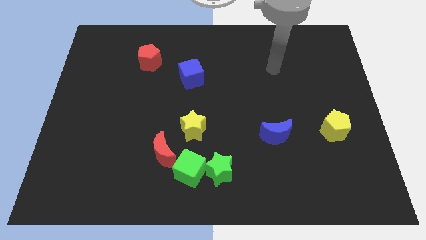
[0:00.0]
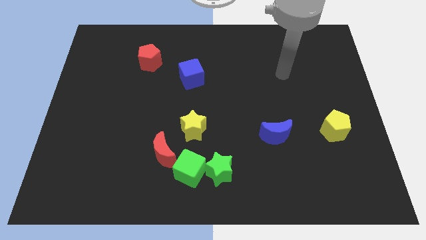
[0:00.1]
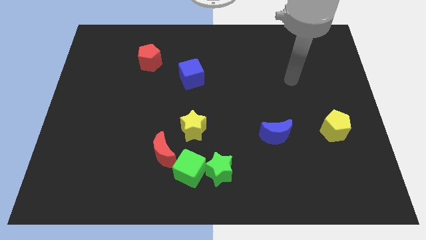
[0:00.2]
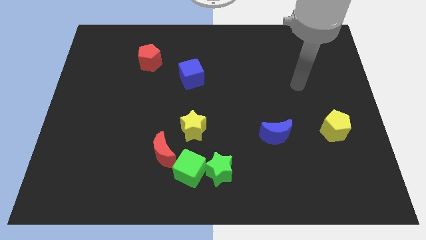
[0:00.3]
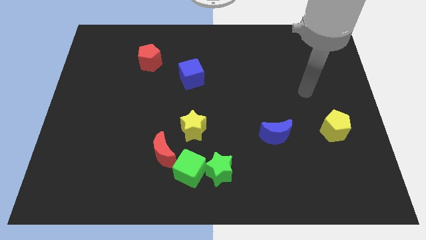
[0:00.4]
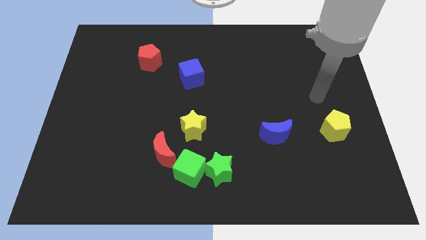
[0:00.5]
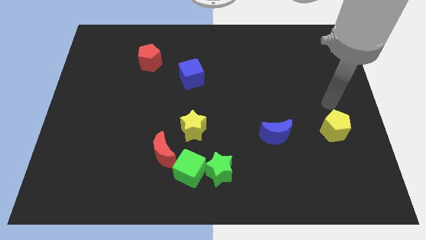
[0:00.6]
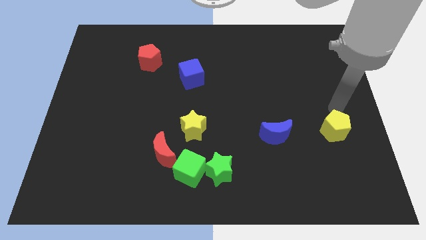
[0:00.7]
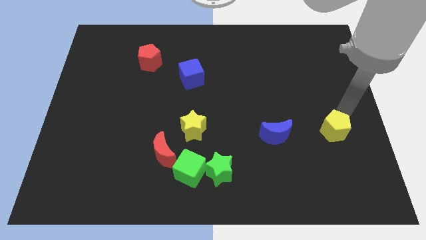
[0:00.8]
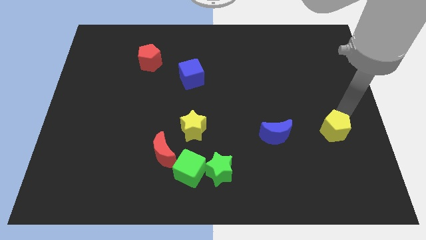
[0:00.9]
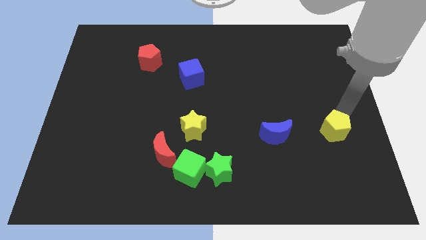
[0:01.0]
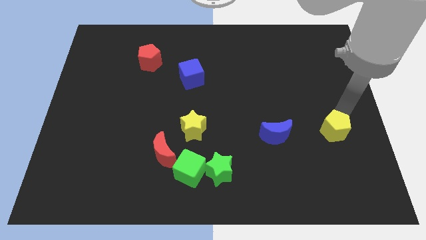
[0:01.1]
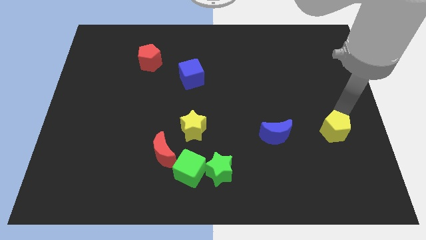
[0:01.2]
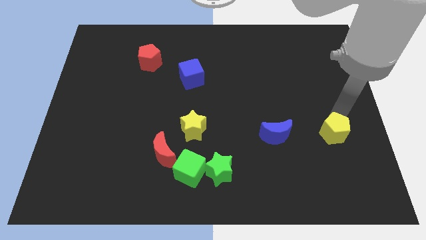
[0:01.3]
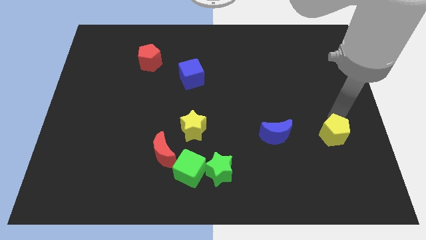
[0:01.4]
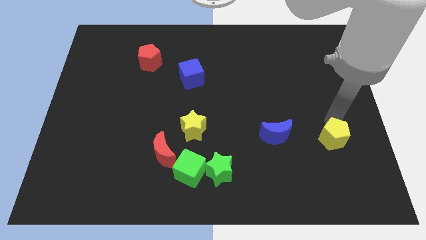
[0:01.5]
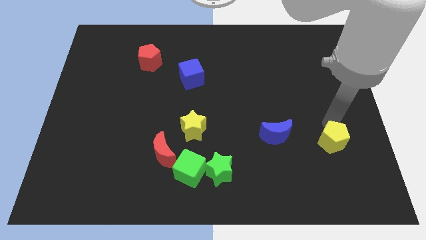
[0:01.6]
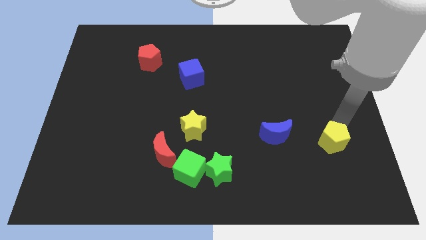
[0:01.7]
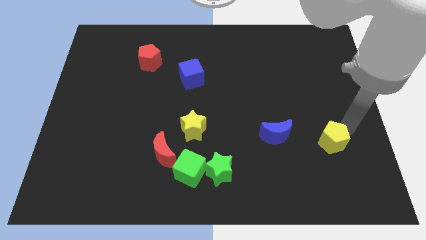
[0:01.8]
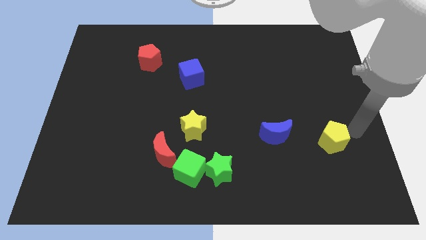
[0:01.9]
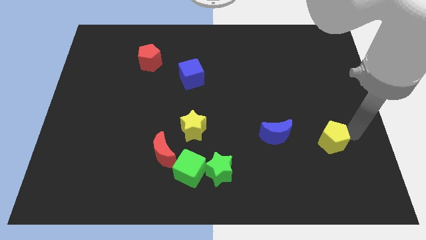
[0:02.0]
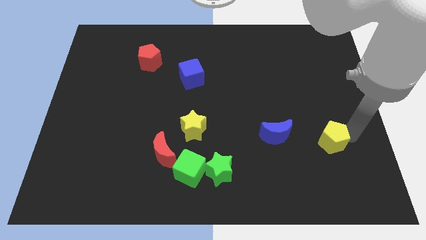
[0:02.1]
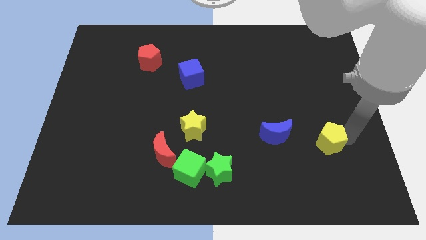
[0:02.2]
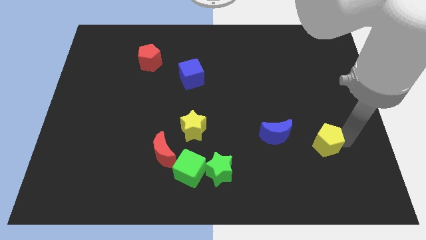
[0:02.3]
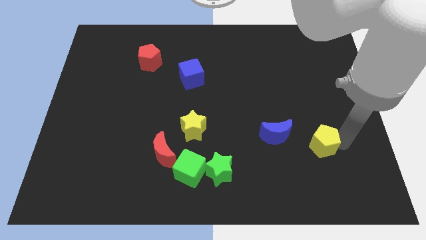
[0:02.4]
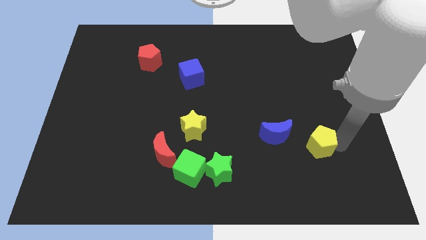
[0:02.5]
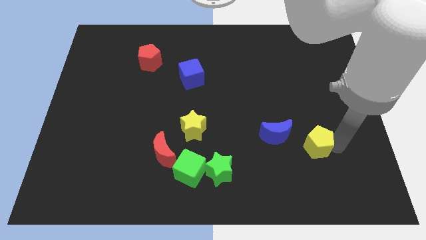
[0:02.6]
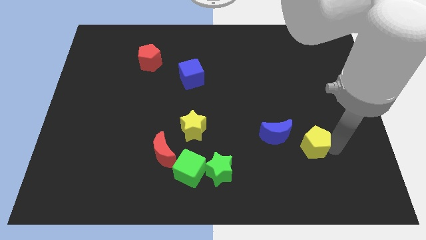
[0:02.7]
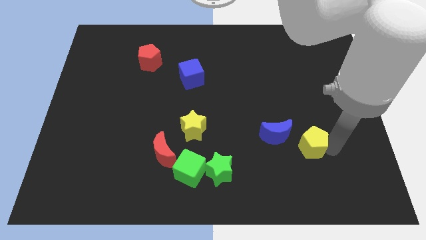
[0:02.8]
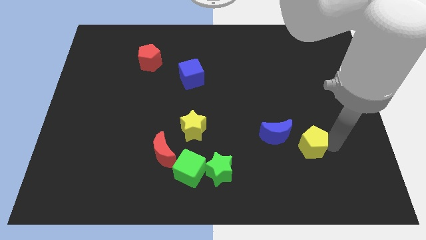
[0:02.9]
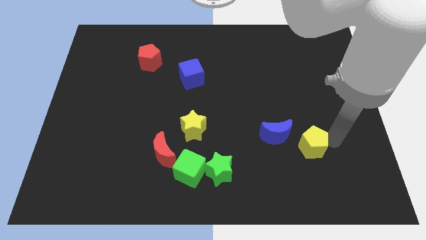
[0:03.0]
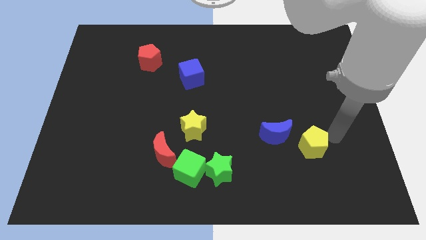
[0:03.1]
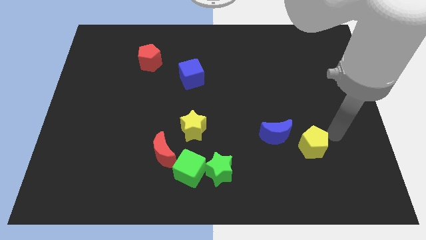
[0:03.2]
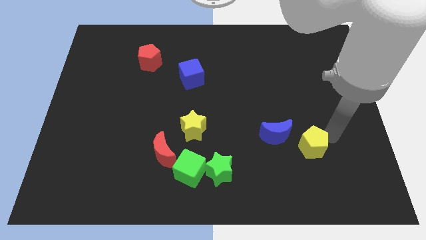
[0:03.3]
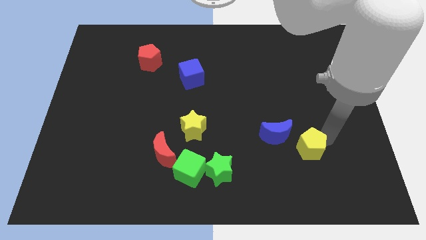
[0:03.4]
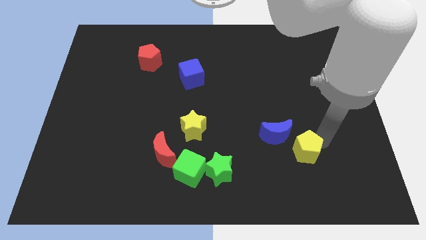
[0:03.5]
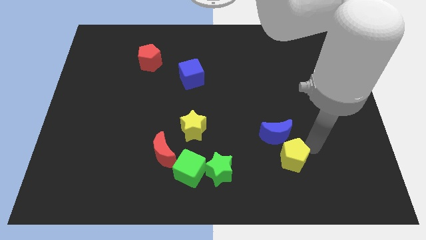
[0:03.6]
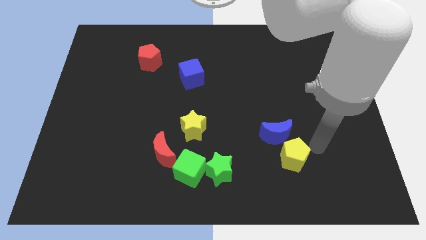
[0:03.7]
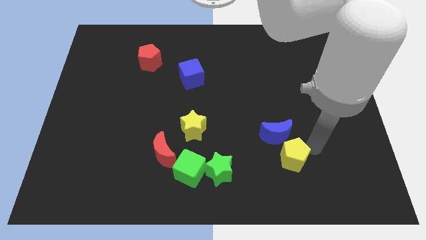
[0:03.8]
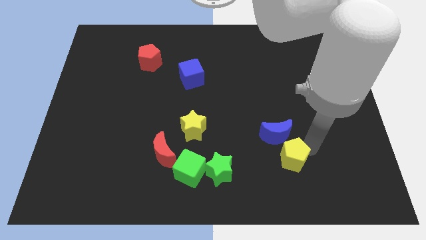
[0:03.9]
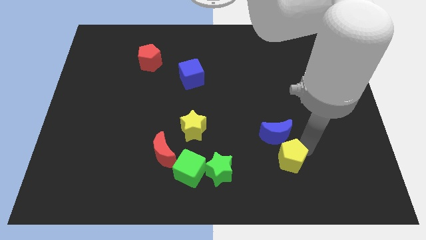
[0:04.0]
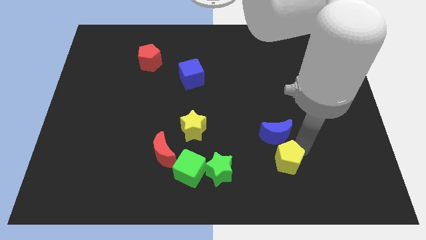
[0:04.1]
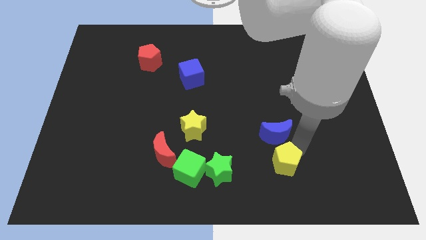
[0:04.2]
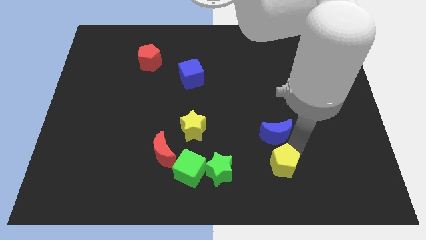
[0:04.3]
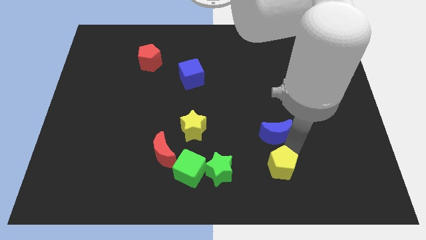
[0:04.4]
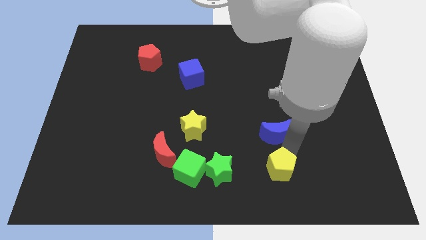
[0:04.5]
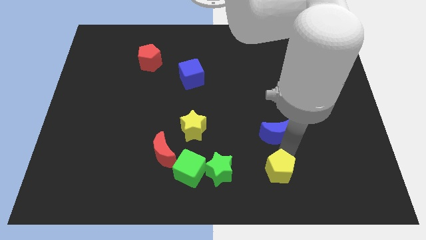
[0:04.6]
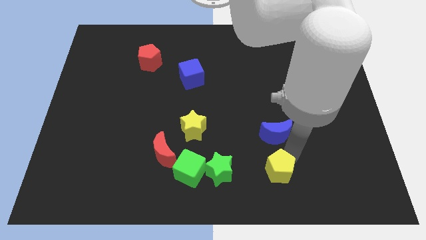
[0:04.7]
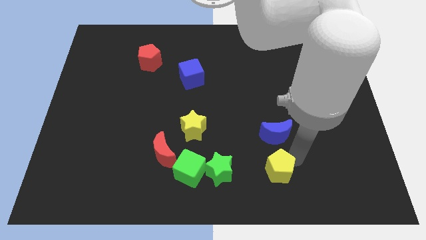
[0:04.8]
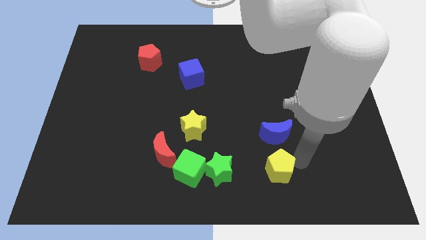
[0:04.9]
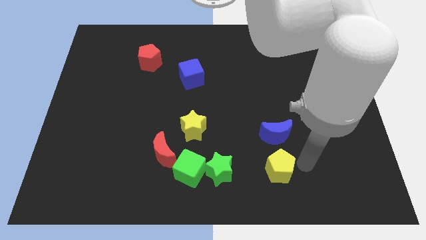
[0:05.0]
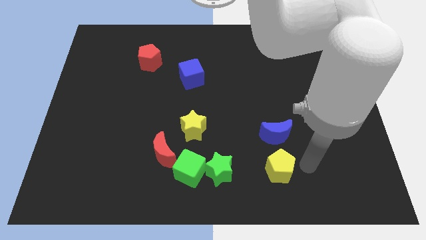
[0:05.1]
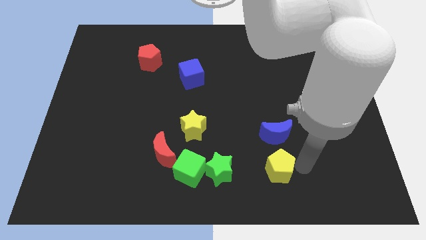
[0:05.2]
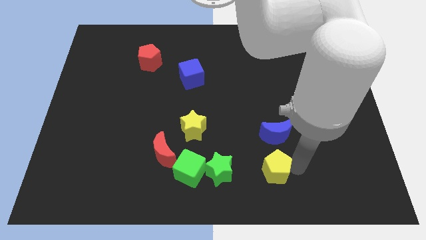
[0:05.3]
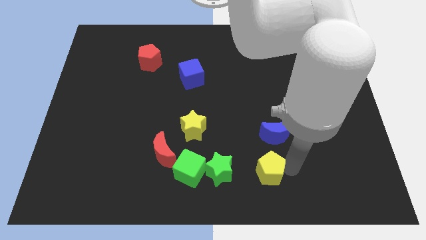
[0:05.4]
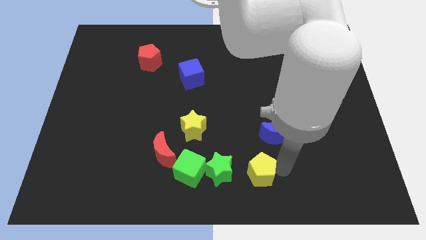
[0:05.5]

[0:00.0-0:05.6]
put the yellow pentagon to the bottom side

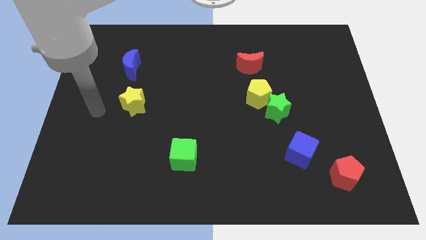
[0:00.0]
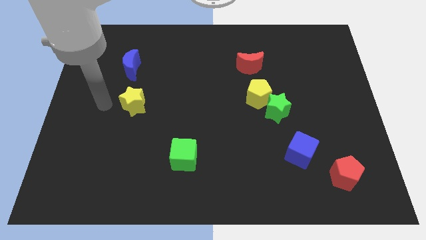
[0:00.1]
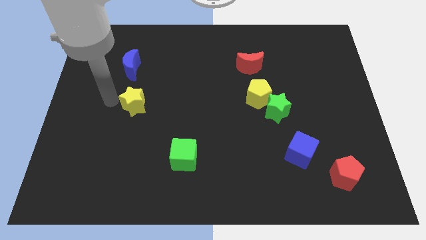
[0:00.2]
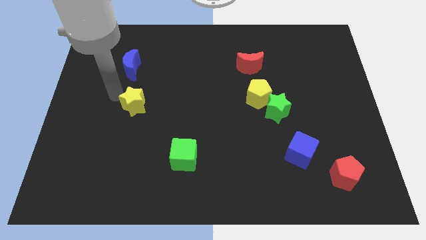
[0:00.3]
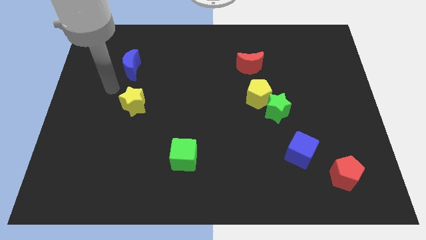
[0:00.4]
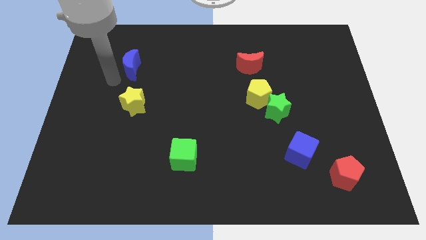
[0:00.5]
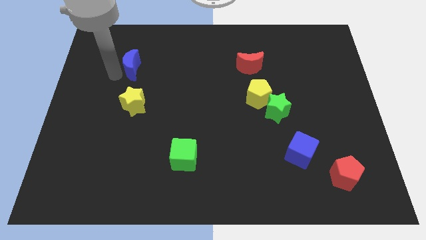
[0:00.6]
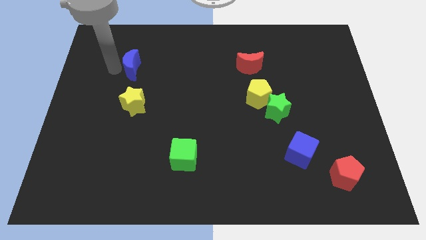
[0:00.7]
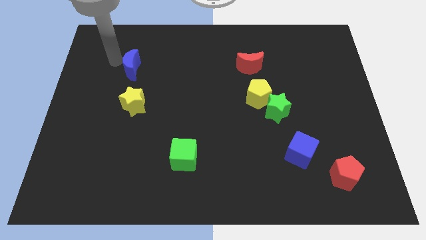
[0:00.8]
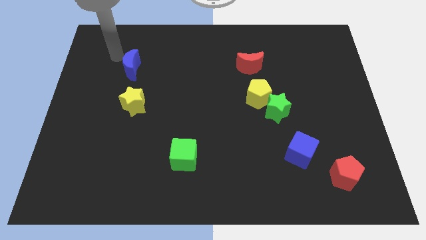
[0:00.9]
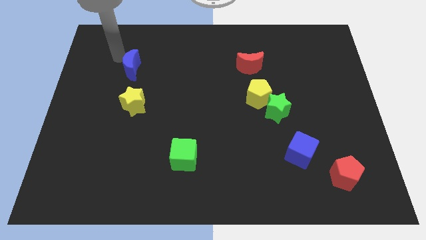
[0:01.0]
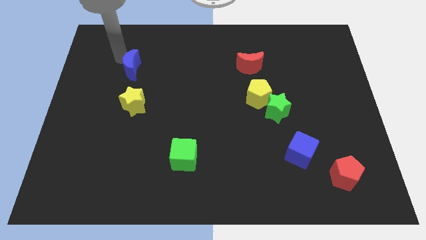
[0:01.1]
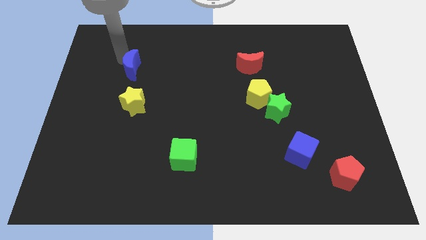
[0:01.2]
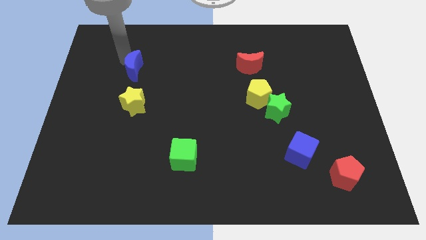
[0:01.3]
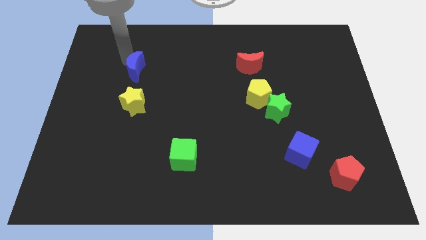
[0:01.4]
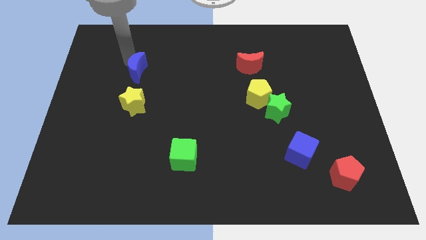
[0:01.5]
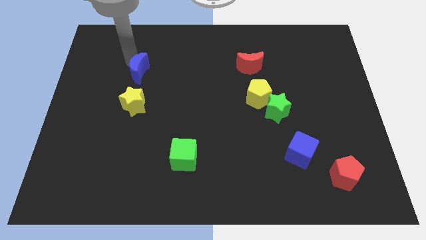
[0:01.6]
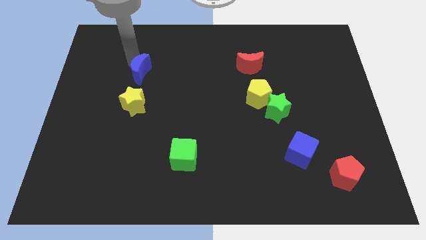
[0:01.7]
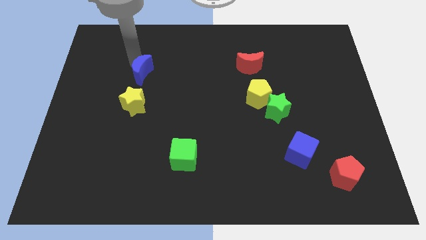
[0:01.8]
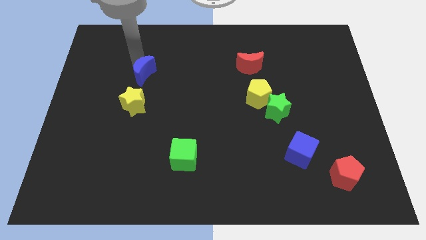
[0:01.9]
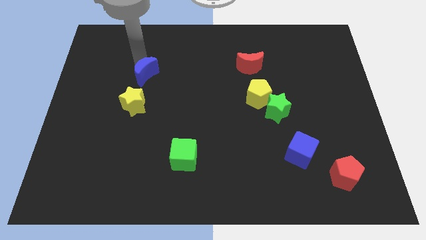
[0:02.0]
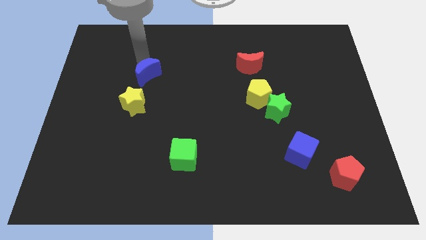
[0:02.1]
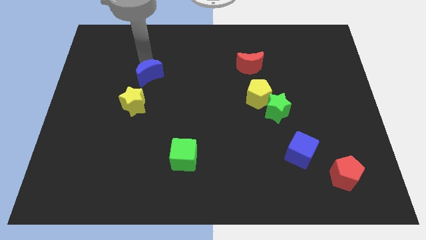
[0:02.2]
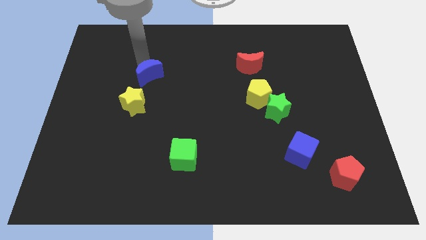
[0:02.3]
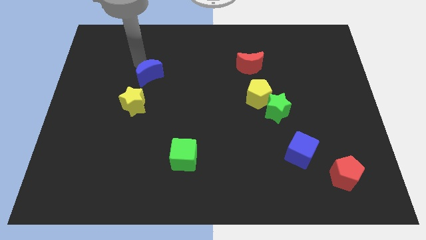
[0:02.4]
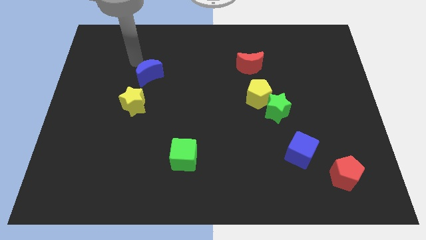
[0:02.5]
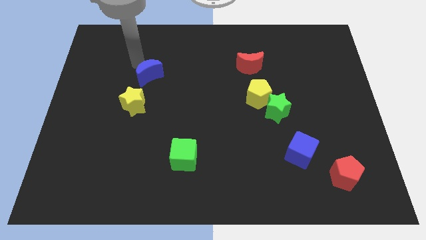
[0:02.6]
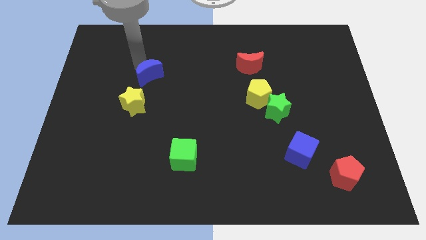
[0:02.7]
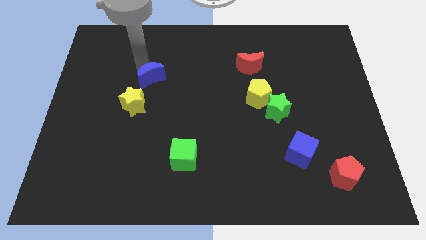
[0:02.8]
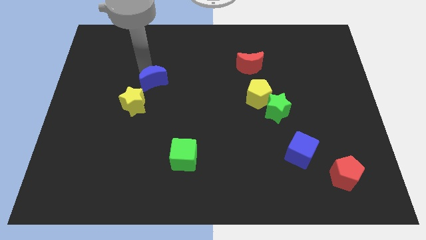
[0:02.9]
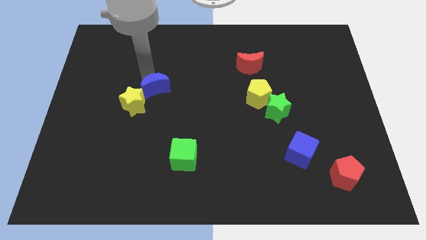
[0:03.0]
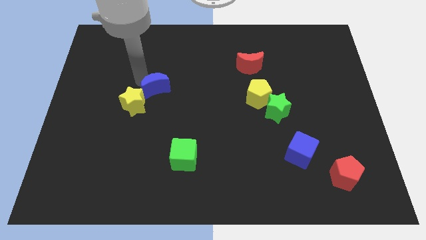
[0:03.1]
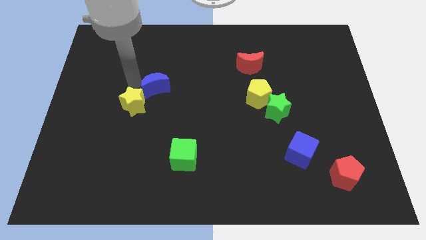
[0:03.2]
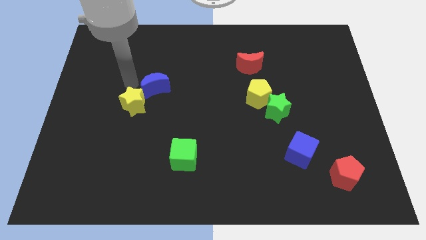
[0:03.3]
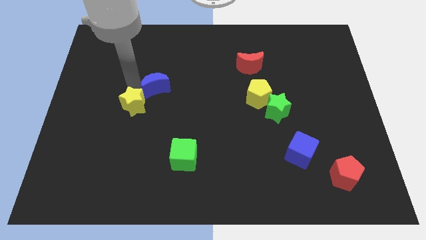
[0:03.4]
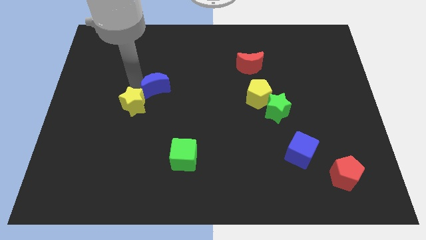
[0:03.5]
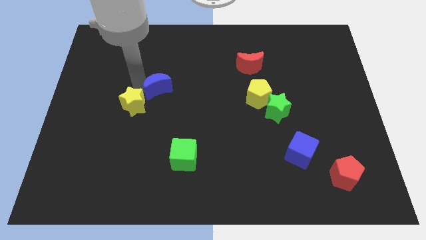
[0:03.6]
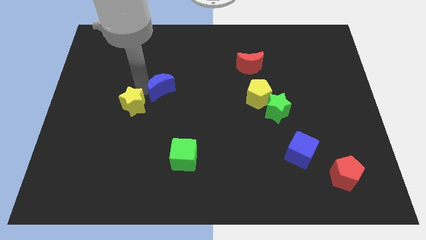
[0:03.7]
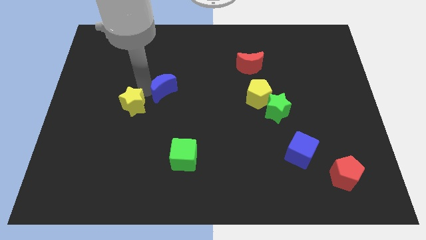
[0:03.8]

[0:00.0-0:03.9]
push the blue moon to the center of the board
